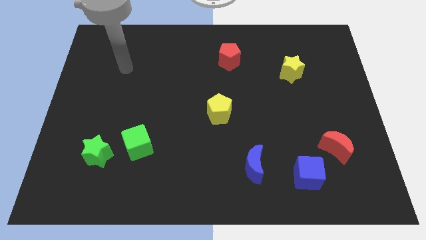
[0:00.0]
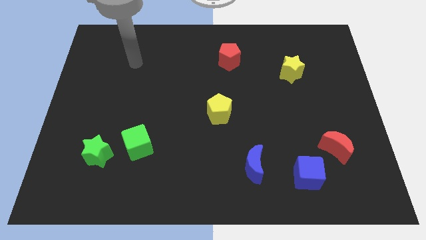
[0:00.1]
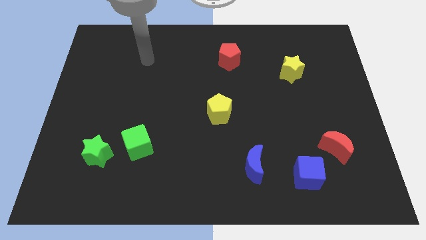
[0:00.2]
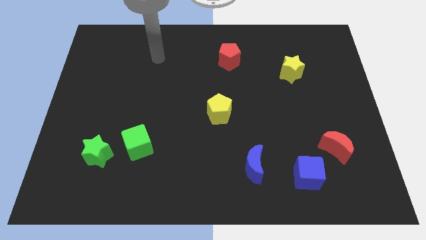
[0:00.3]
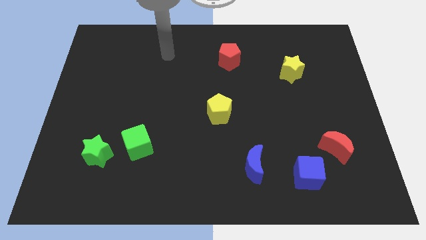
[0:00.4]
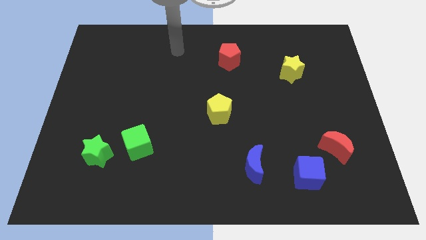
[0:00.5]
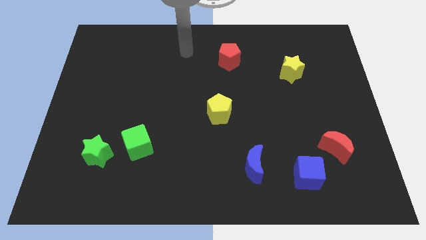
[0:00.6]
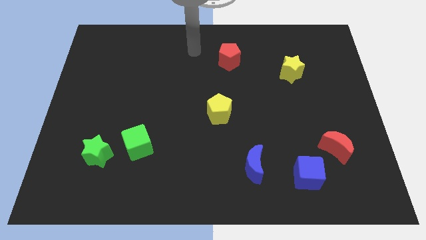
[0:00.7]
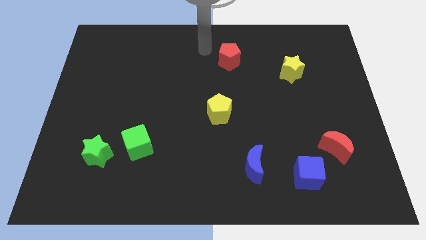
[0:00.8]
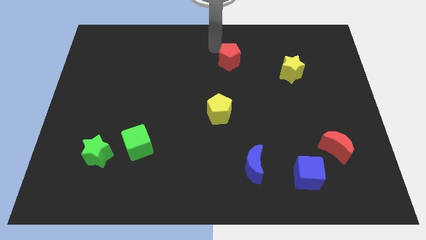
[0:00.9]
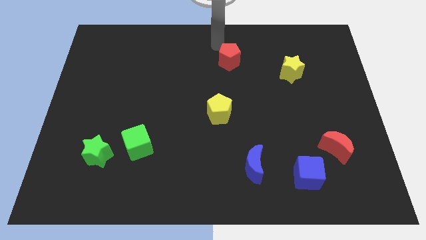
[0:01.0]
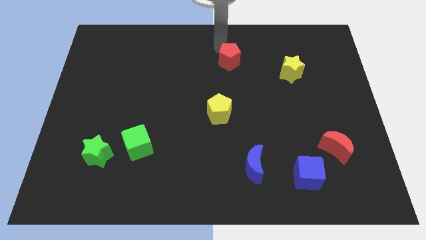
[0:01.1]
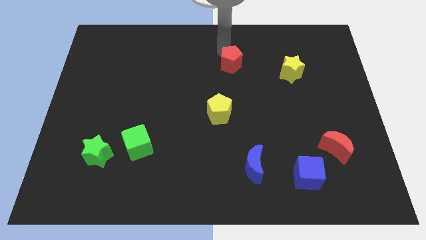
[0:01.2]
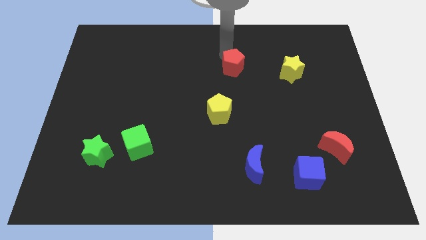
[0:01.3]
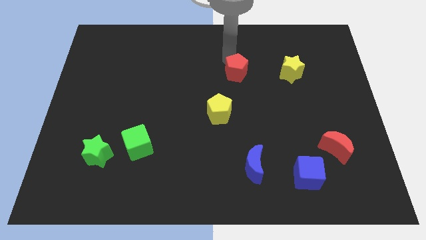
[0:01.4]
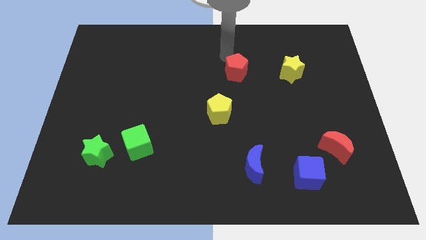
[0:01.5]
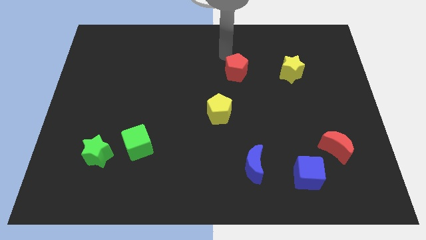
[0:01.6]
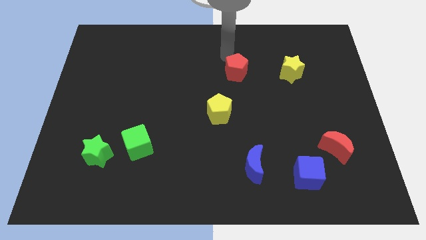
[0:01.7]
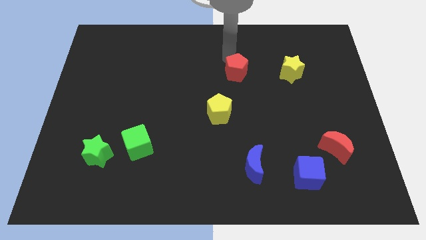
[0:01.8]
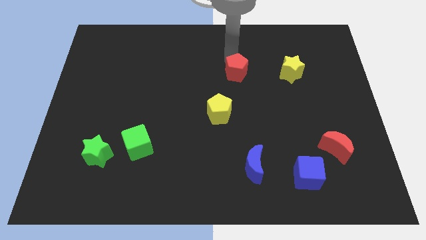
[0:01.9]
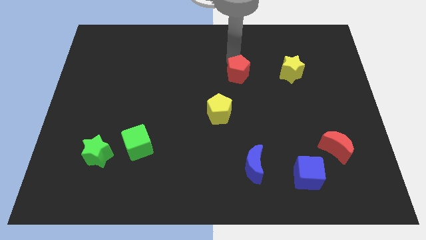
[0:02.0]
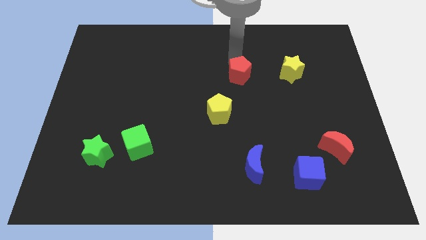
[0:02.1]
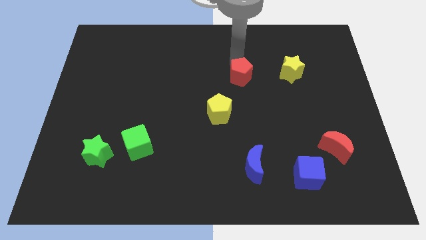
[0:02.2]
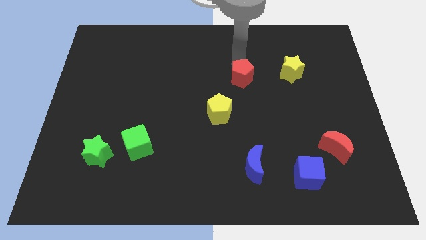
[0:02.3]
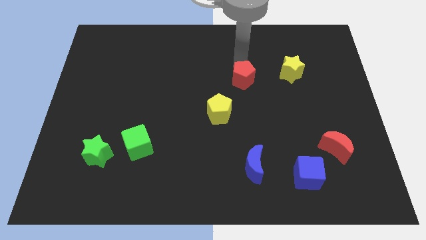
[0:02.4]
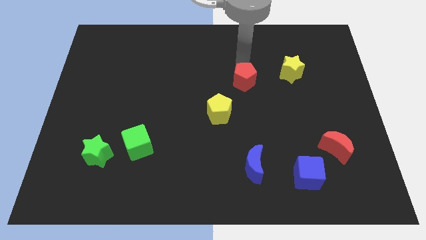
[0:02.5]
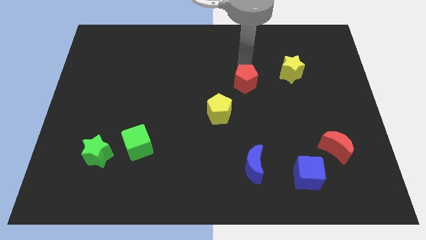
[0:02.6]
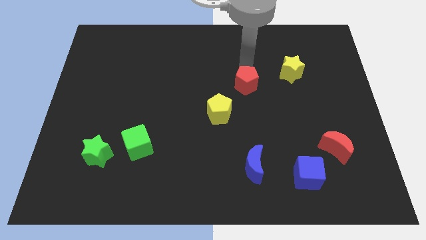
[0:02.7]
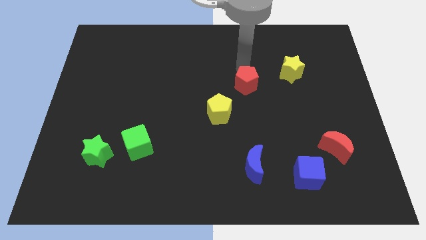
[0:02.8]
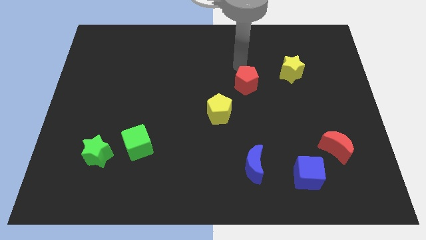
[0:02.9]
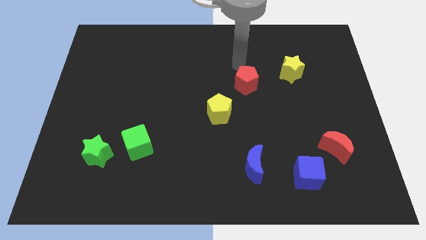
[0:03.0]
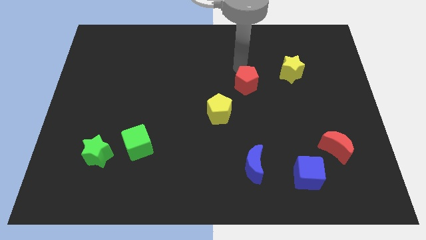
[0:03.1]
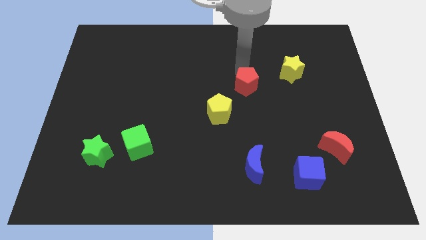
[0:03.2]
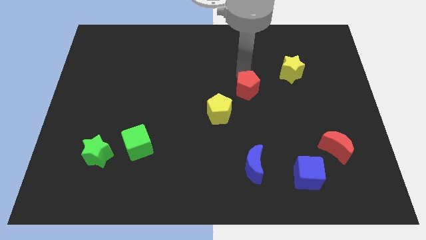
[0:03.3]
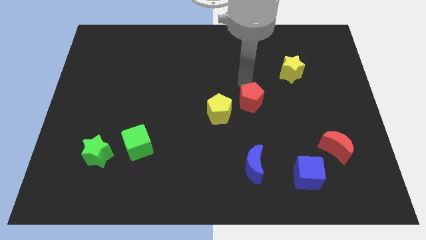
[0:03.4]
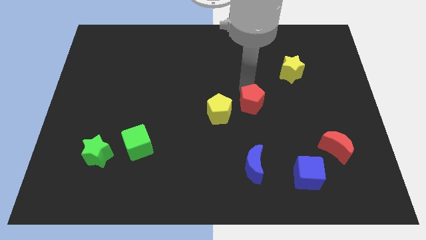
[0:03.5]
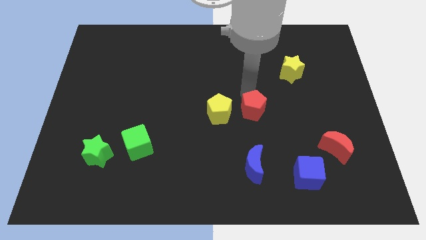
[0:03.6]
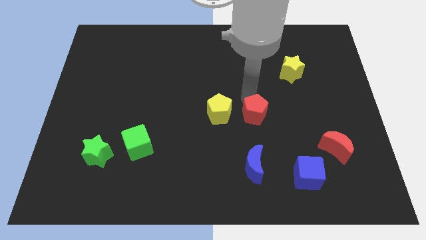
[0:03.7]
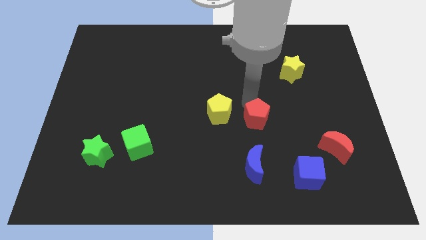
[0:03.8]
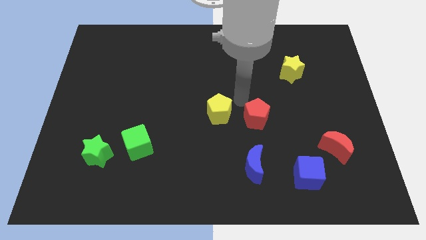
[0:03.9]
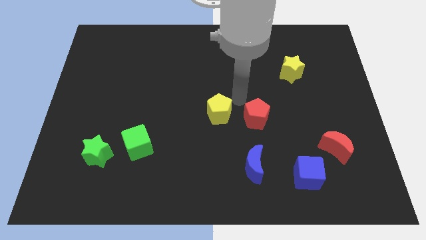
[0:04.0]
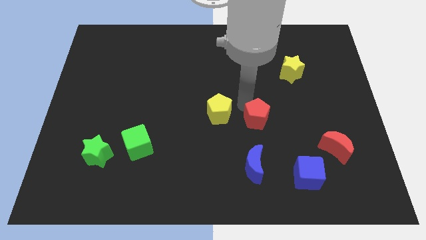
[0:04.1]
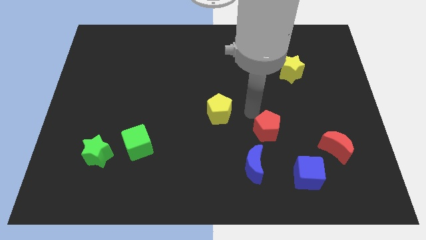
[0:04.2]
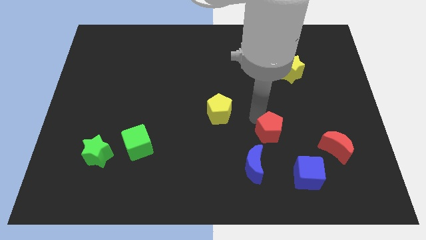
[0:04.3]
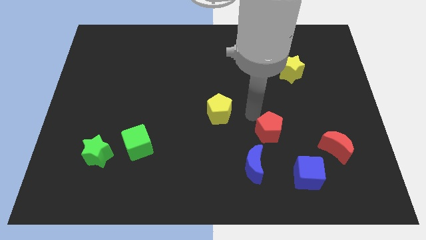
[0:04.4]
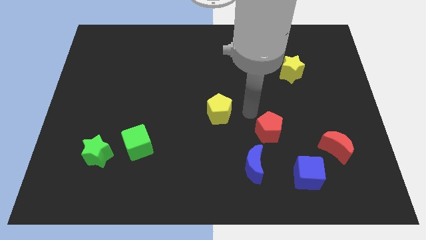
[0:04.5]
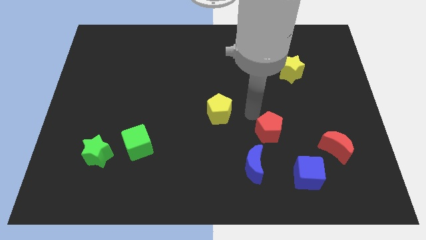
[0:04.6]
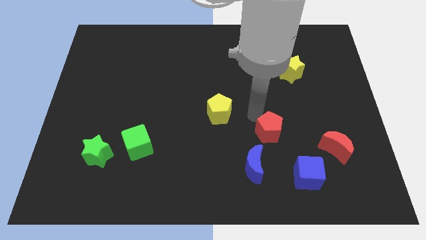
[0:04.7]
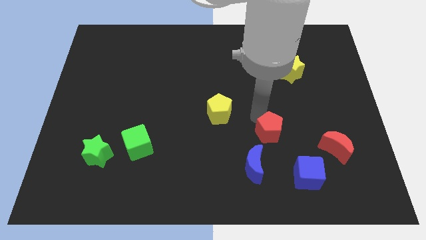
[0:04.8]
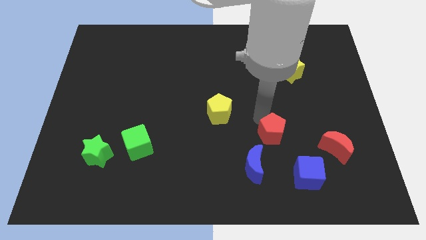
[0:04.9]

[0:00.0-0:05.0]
put the red pentagon to the left side of the red moon

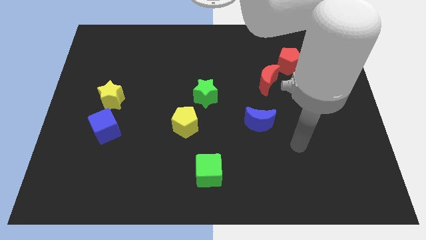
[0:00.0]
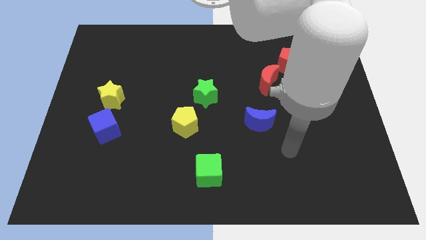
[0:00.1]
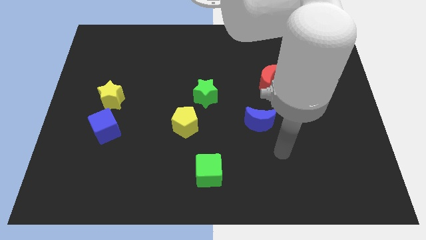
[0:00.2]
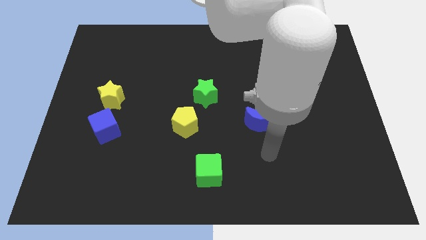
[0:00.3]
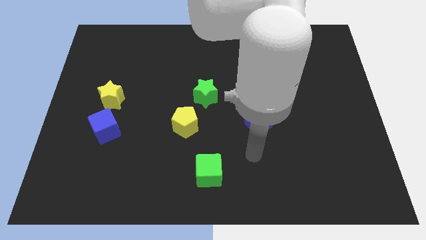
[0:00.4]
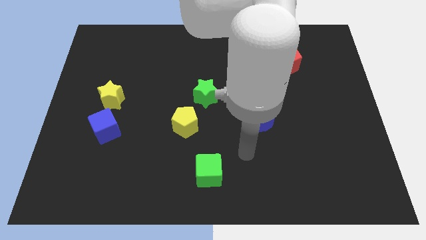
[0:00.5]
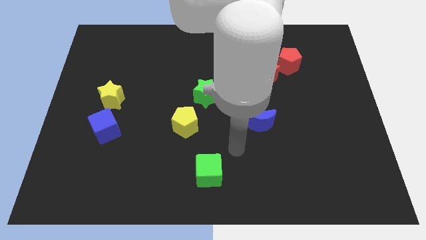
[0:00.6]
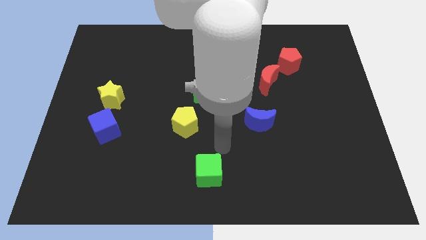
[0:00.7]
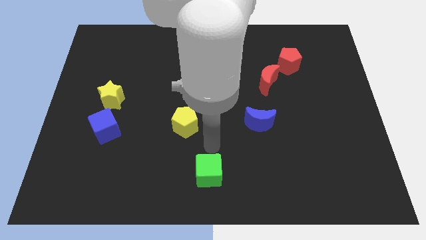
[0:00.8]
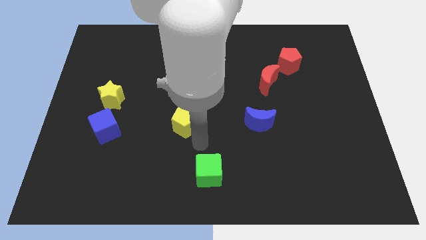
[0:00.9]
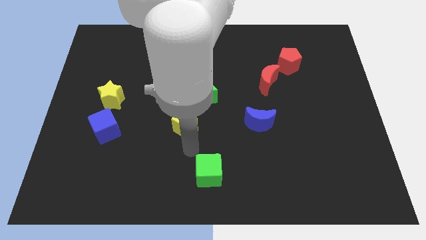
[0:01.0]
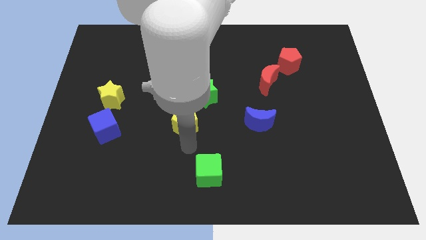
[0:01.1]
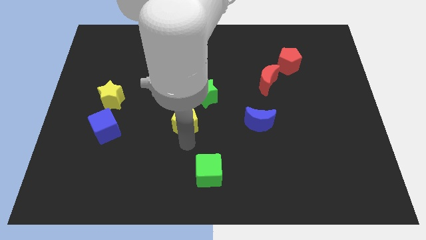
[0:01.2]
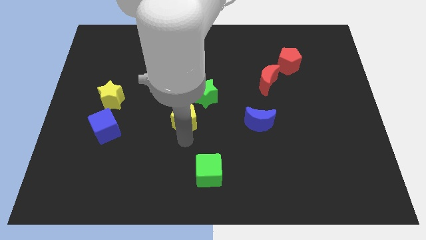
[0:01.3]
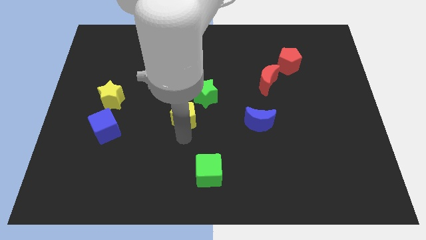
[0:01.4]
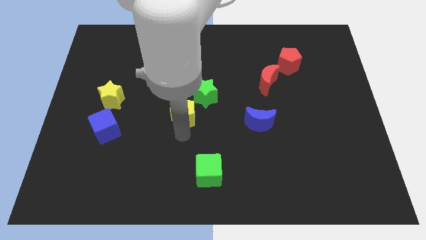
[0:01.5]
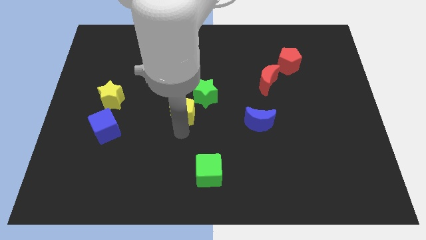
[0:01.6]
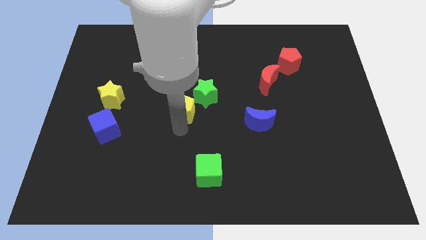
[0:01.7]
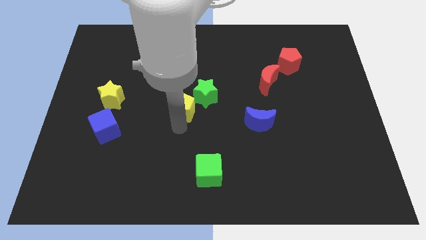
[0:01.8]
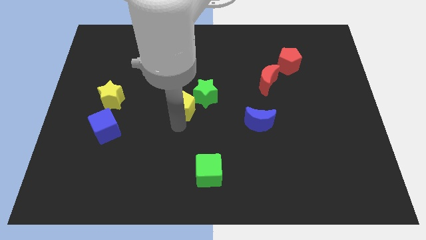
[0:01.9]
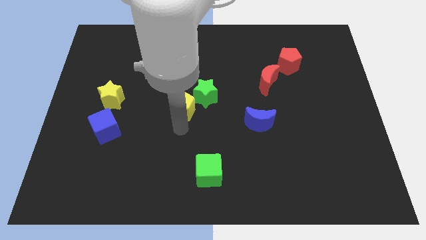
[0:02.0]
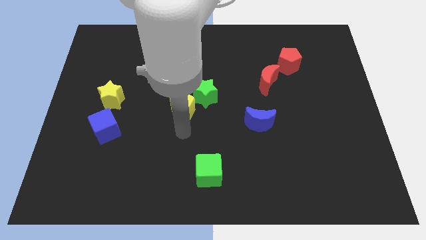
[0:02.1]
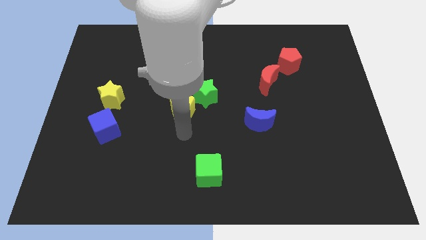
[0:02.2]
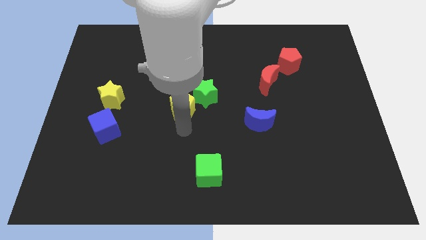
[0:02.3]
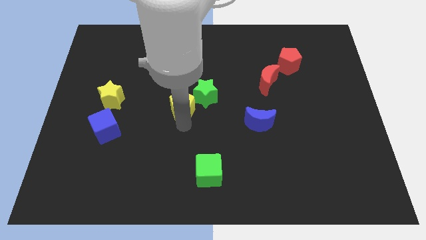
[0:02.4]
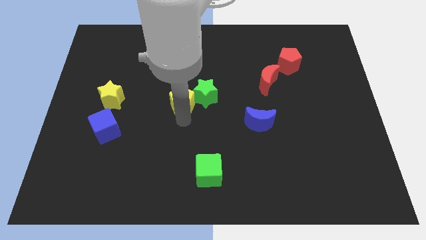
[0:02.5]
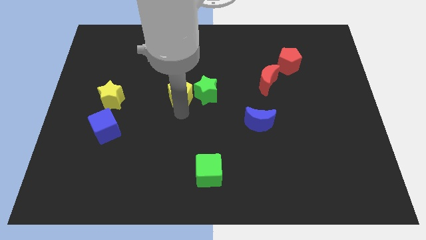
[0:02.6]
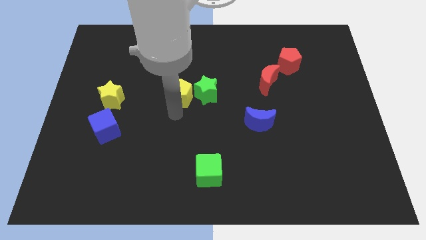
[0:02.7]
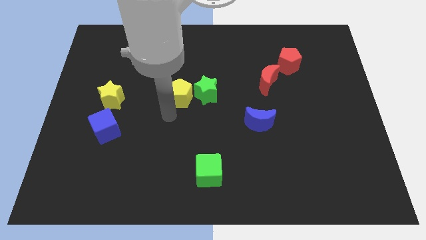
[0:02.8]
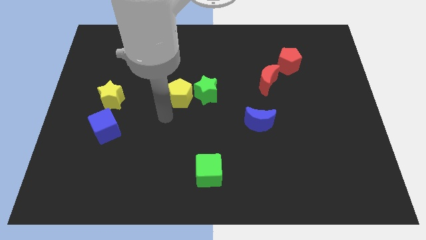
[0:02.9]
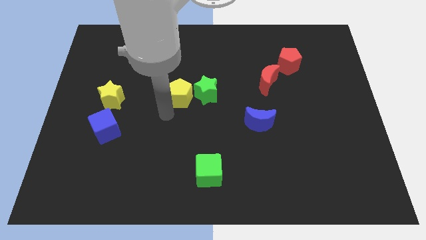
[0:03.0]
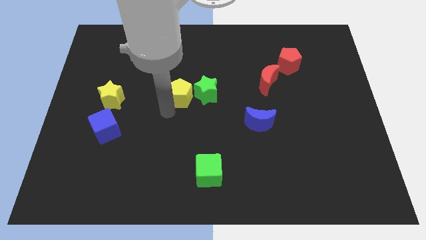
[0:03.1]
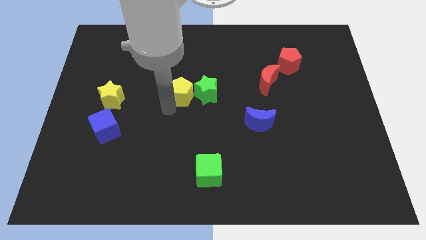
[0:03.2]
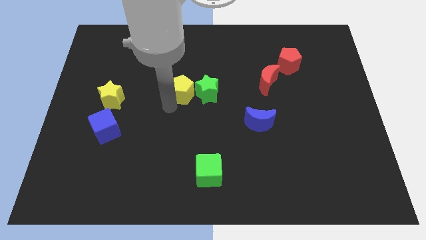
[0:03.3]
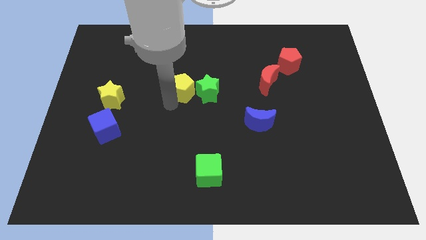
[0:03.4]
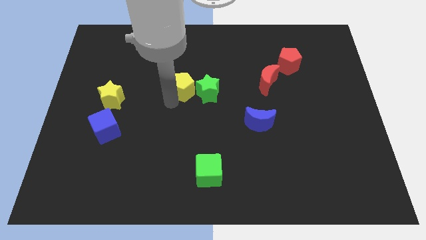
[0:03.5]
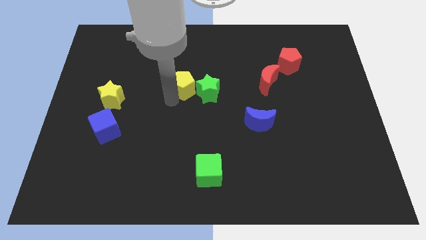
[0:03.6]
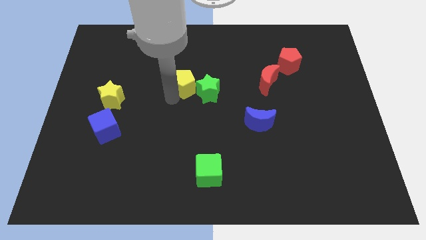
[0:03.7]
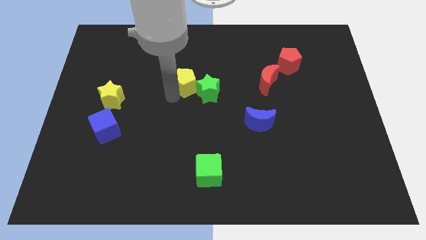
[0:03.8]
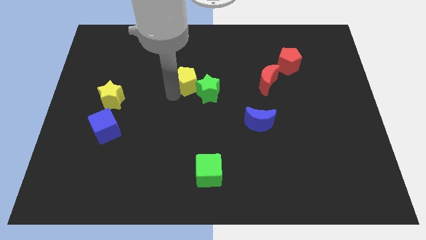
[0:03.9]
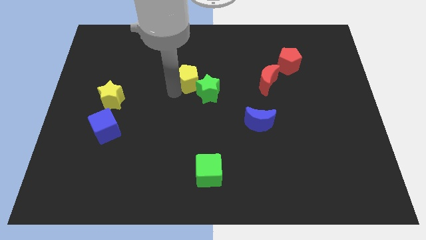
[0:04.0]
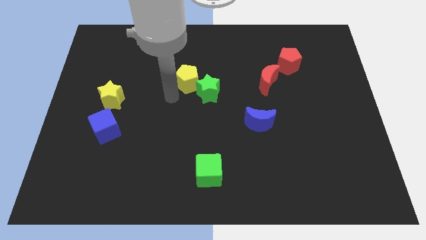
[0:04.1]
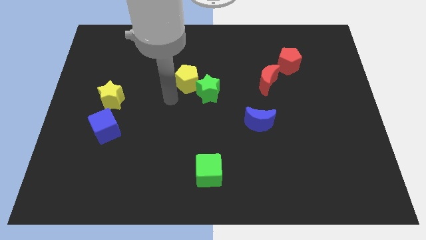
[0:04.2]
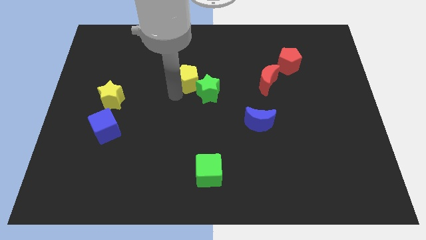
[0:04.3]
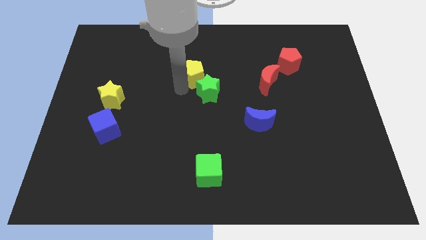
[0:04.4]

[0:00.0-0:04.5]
push the yellow pentagon to the top side of the green star
